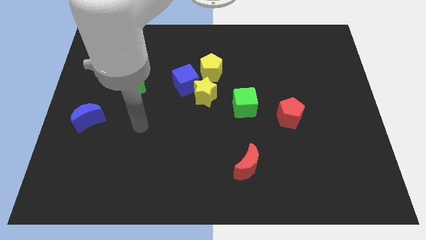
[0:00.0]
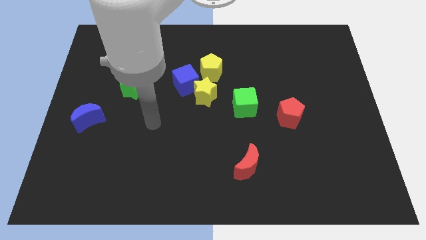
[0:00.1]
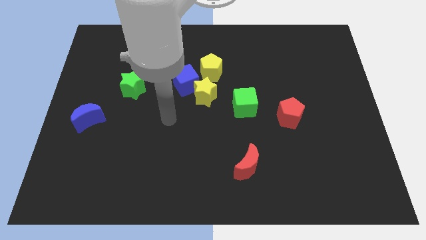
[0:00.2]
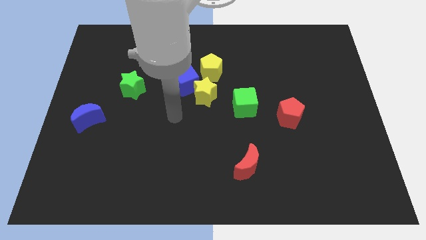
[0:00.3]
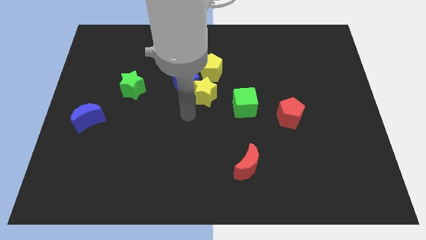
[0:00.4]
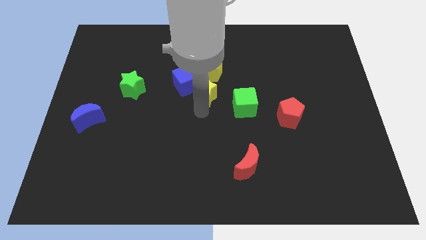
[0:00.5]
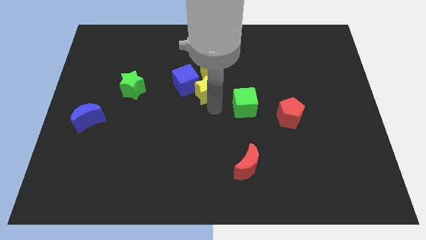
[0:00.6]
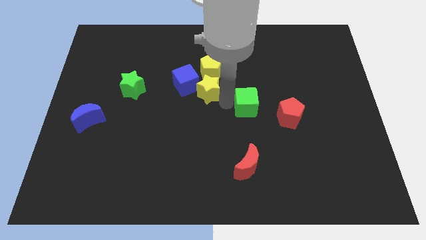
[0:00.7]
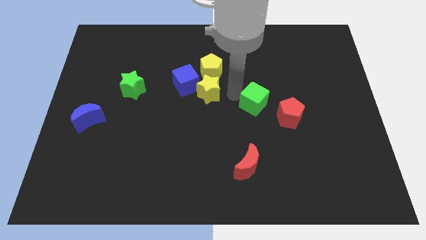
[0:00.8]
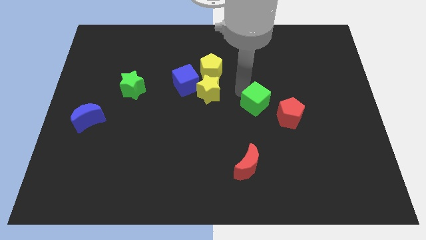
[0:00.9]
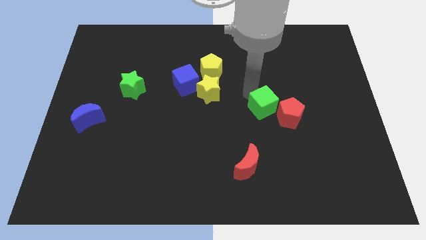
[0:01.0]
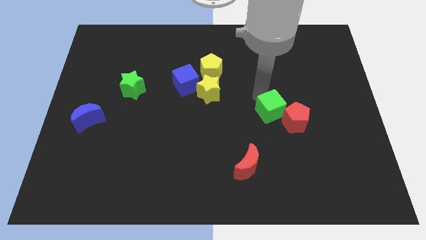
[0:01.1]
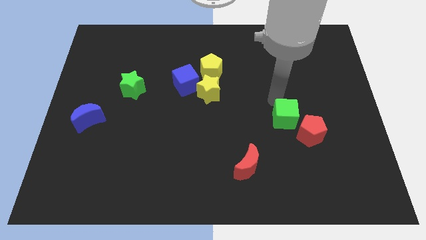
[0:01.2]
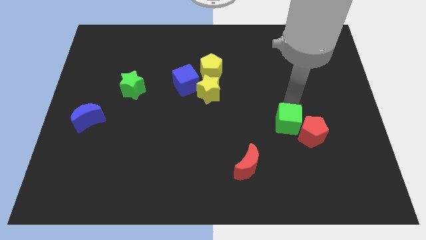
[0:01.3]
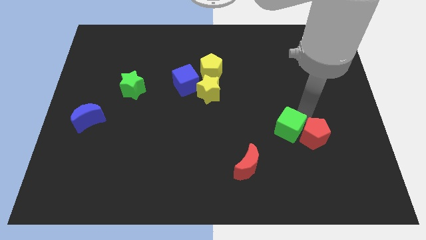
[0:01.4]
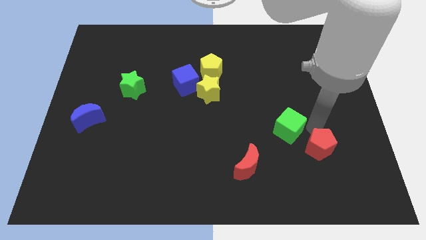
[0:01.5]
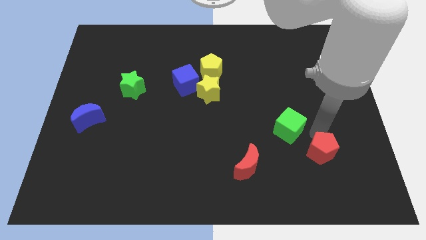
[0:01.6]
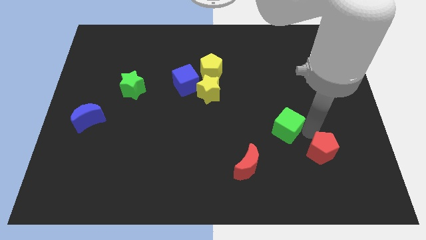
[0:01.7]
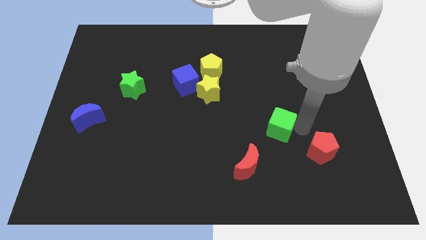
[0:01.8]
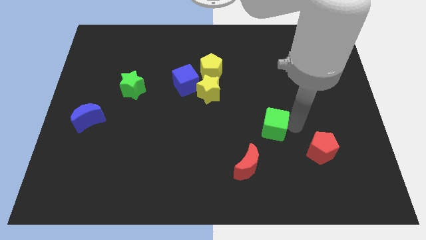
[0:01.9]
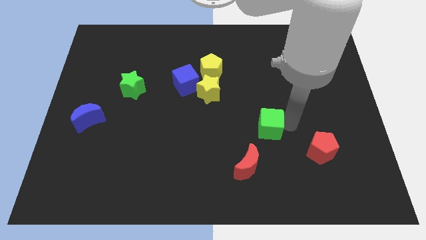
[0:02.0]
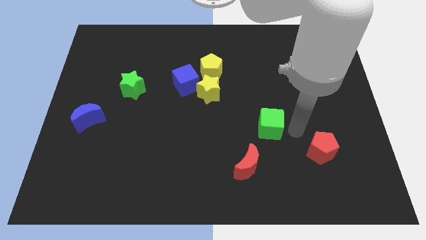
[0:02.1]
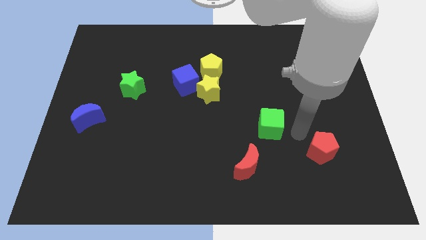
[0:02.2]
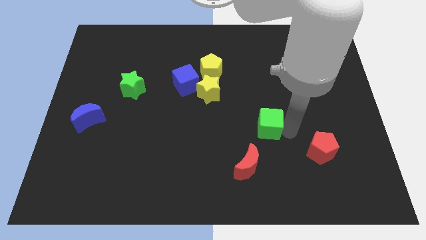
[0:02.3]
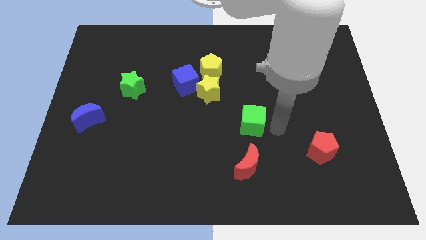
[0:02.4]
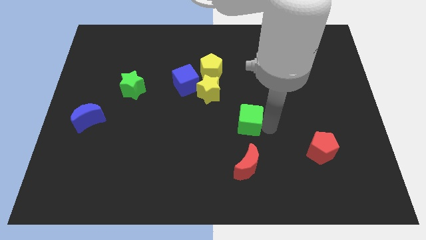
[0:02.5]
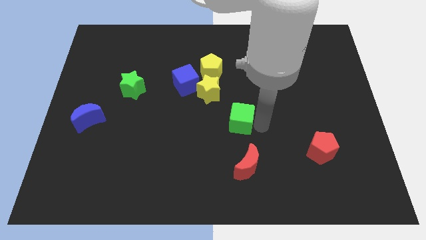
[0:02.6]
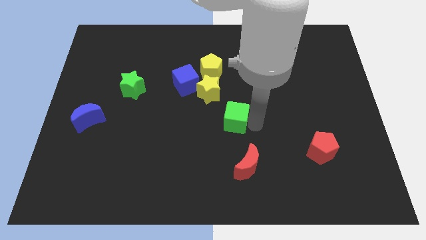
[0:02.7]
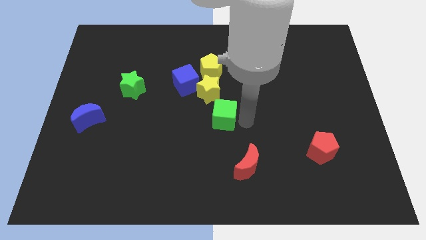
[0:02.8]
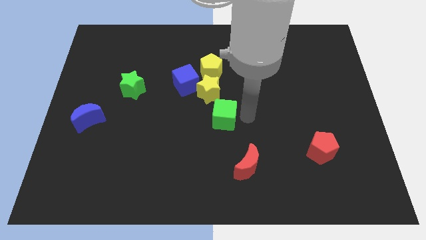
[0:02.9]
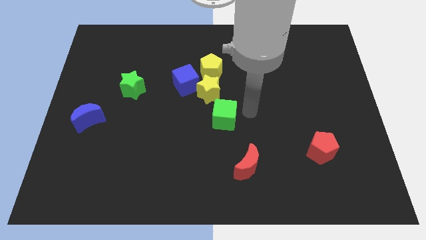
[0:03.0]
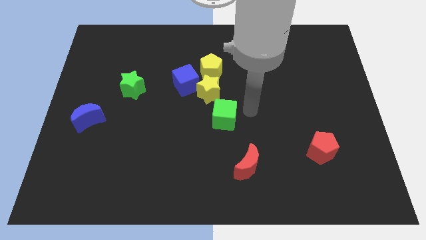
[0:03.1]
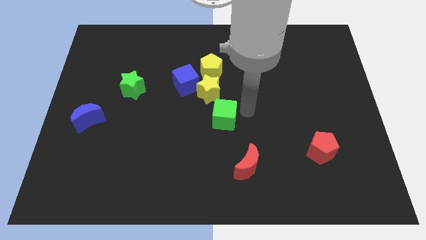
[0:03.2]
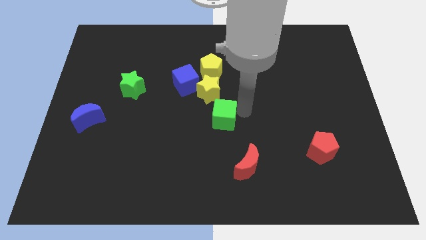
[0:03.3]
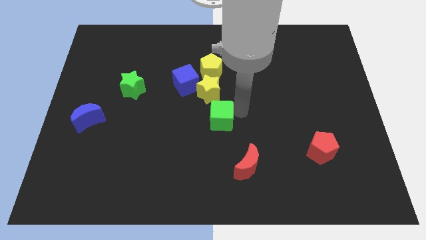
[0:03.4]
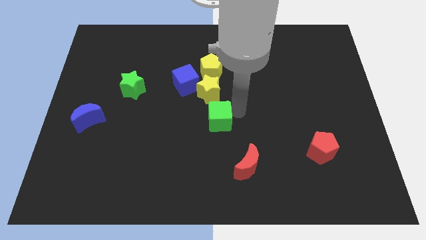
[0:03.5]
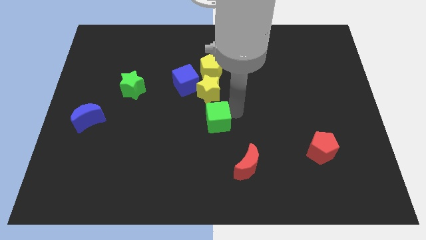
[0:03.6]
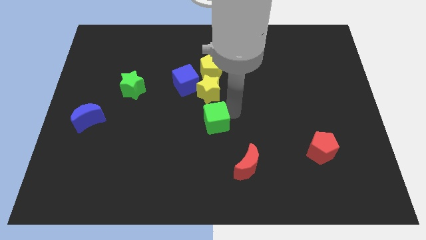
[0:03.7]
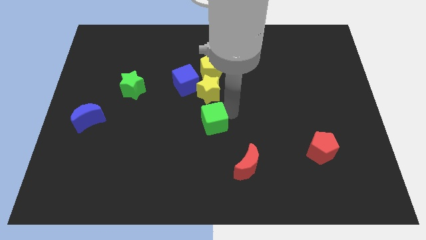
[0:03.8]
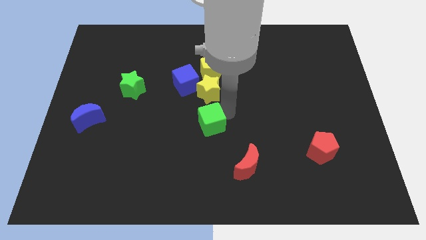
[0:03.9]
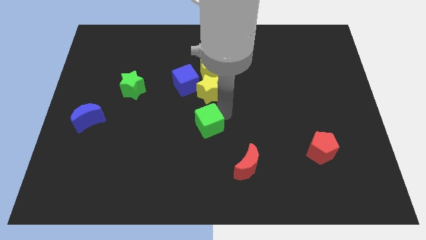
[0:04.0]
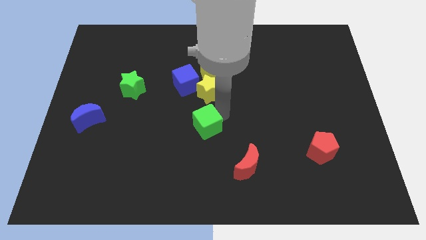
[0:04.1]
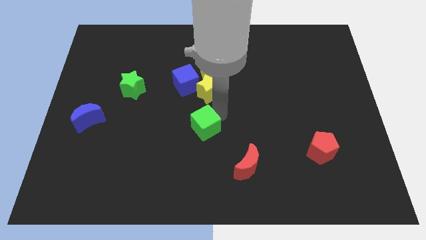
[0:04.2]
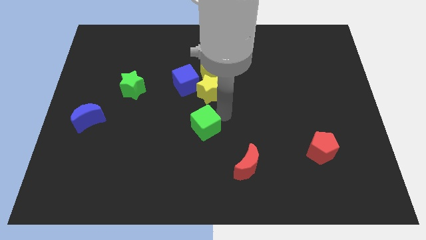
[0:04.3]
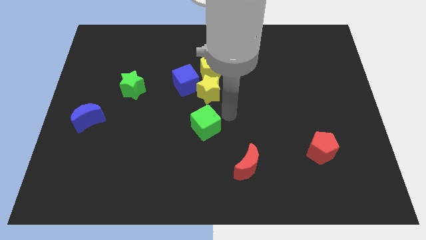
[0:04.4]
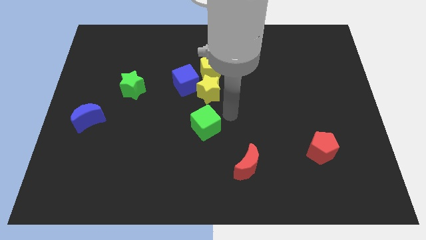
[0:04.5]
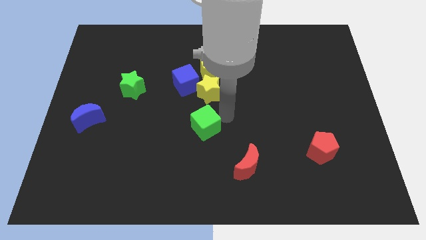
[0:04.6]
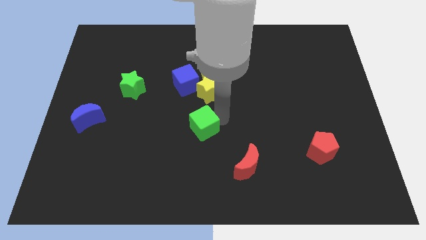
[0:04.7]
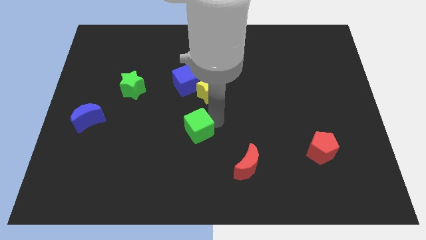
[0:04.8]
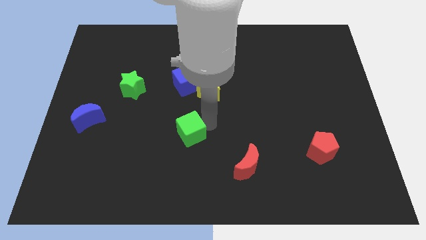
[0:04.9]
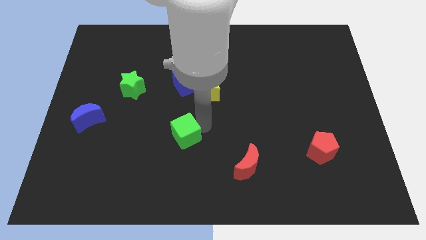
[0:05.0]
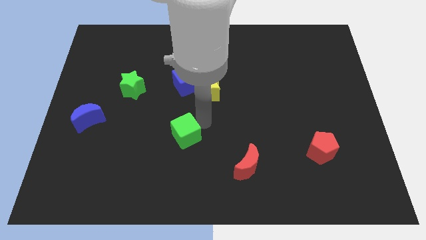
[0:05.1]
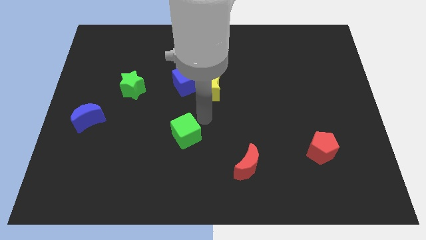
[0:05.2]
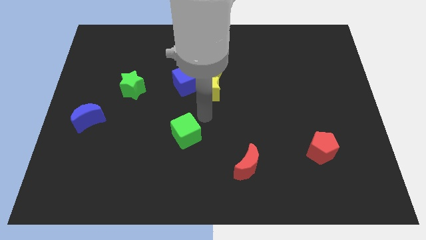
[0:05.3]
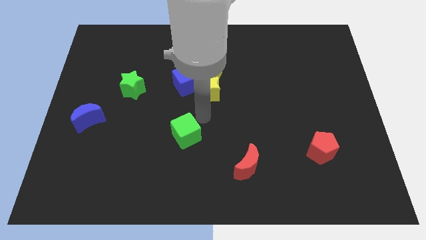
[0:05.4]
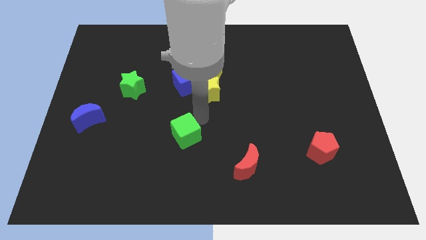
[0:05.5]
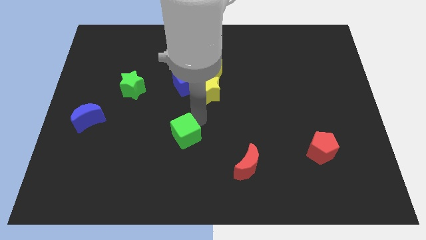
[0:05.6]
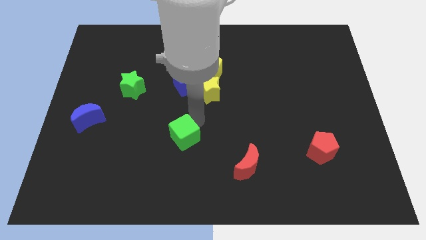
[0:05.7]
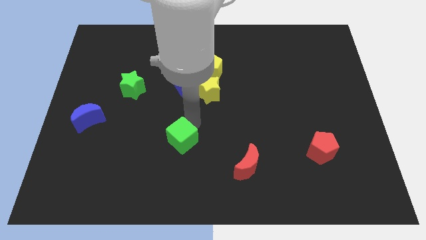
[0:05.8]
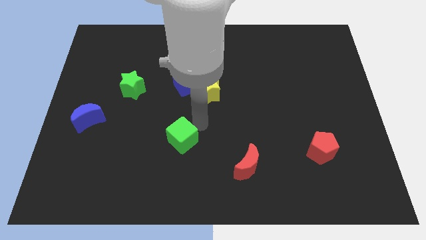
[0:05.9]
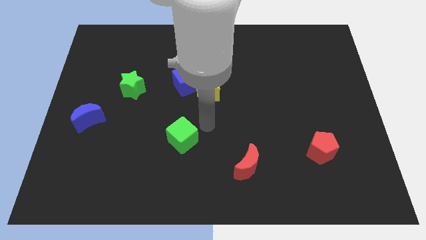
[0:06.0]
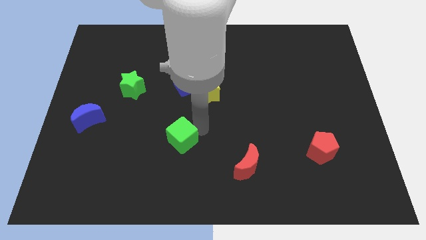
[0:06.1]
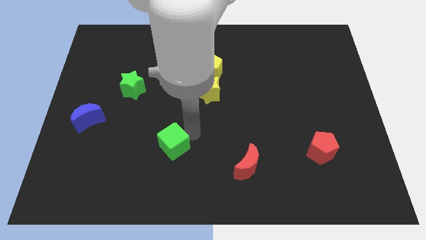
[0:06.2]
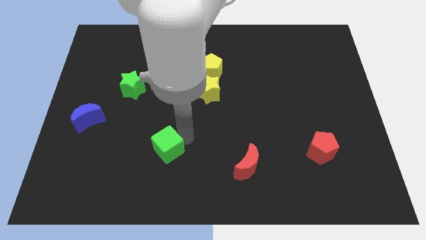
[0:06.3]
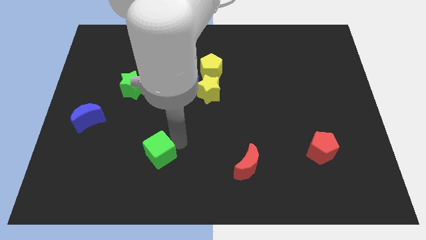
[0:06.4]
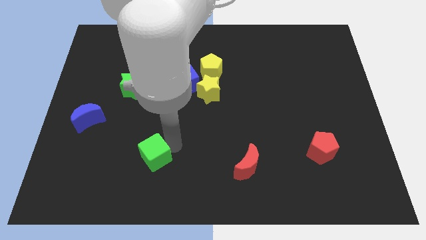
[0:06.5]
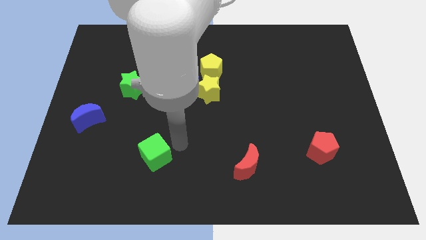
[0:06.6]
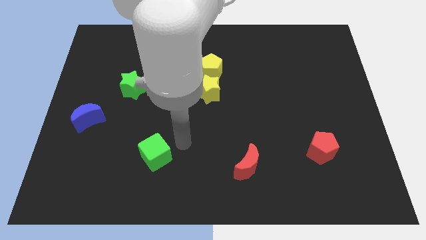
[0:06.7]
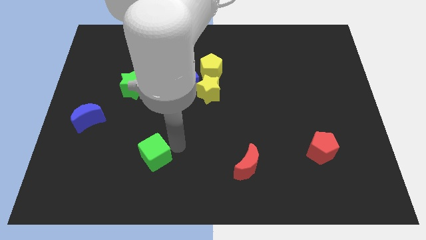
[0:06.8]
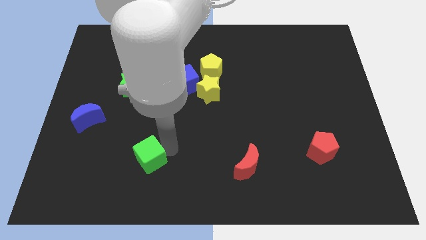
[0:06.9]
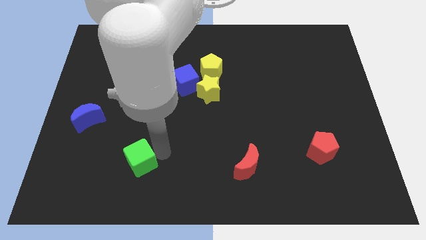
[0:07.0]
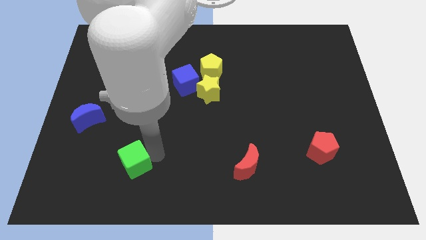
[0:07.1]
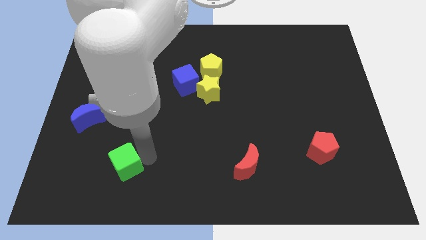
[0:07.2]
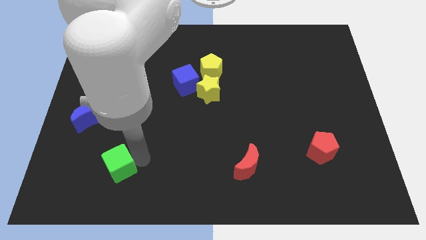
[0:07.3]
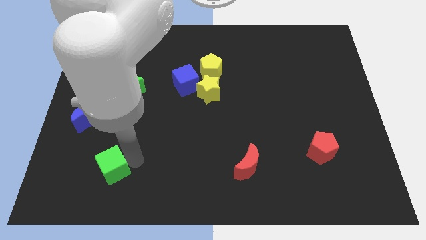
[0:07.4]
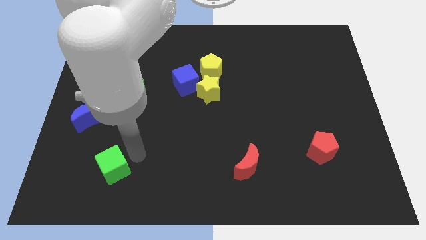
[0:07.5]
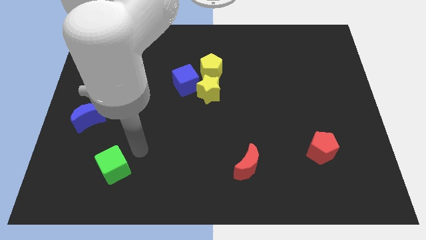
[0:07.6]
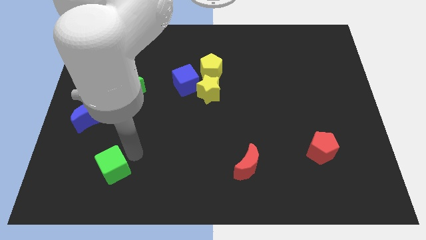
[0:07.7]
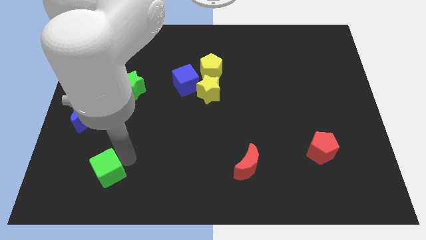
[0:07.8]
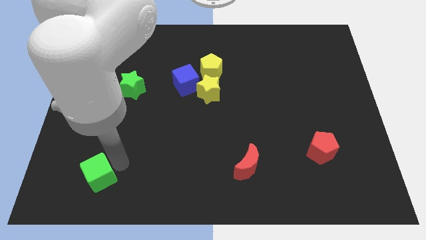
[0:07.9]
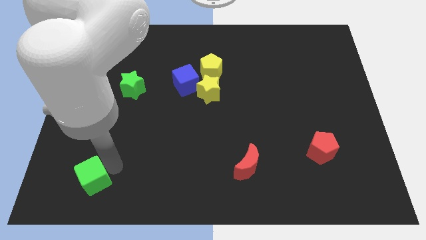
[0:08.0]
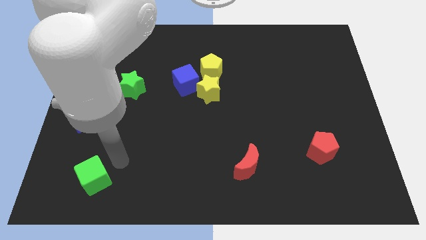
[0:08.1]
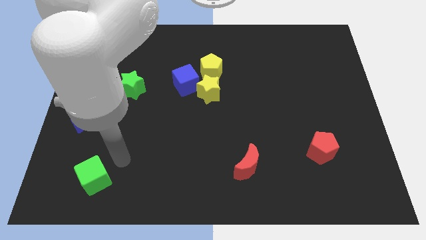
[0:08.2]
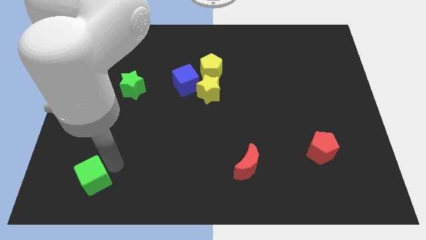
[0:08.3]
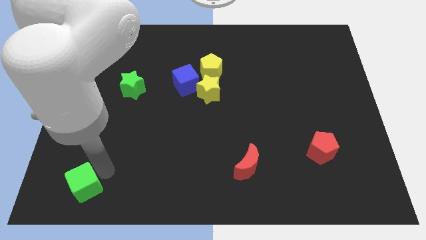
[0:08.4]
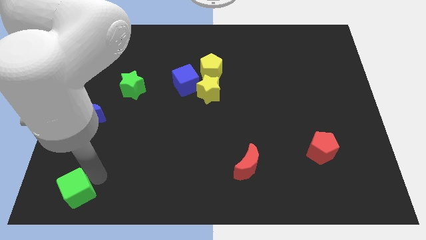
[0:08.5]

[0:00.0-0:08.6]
put the green cube to the bottom left corner
